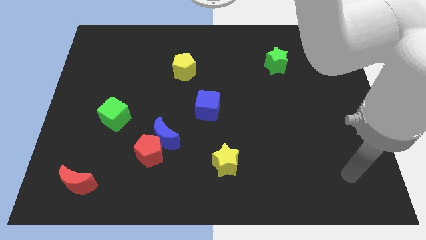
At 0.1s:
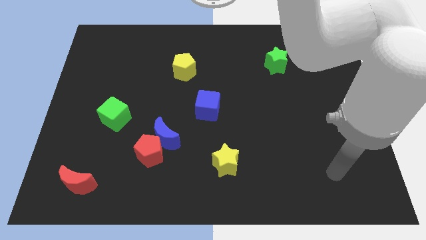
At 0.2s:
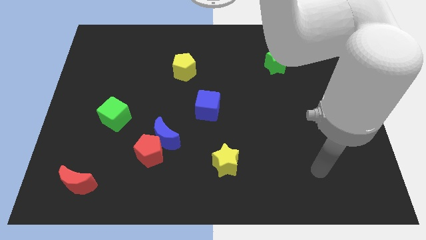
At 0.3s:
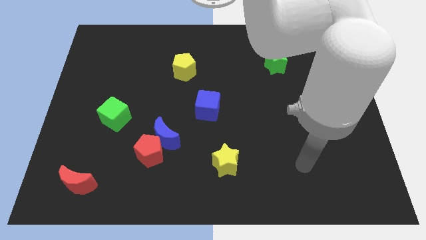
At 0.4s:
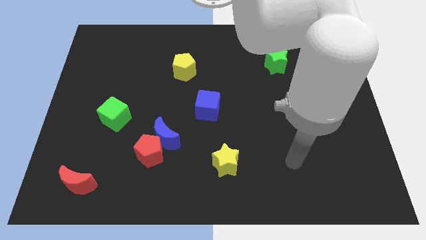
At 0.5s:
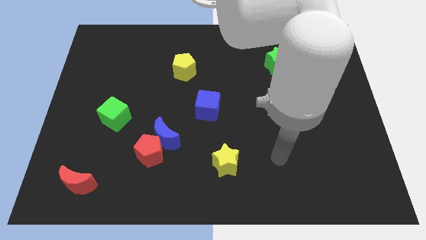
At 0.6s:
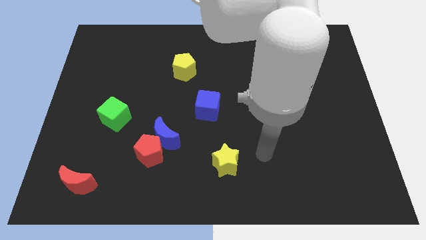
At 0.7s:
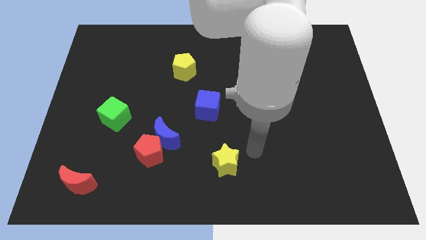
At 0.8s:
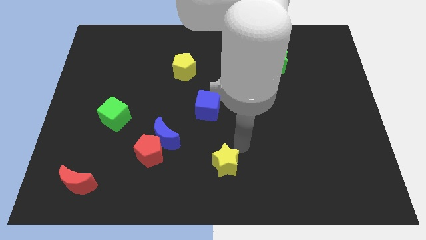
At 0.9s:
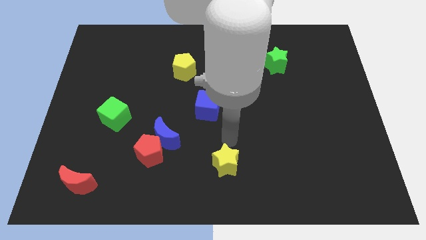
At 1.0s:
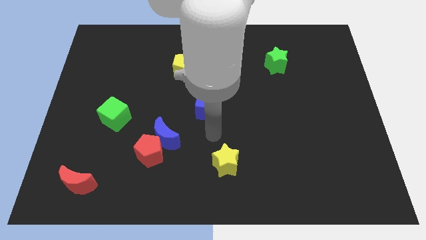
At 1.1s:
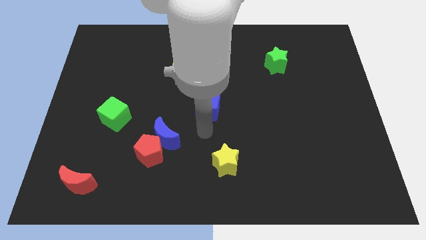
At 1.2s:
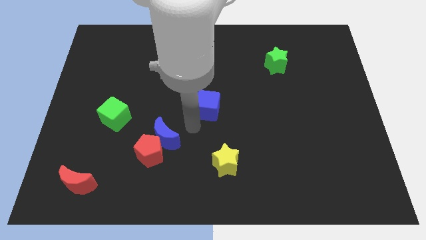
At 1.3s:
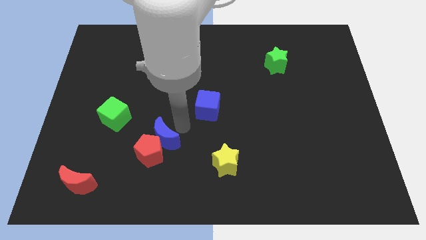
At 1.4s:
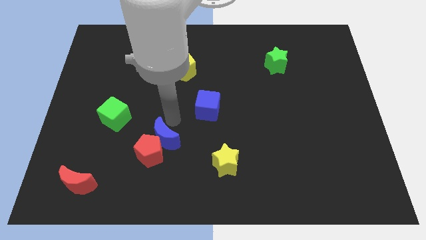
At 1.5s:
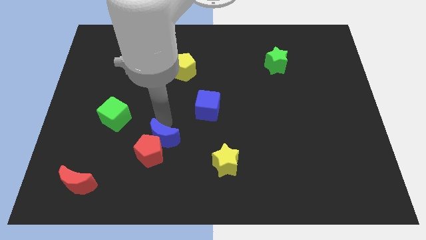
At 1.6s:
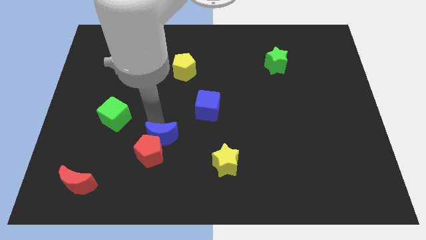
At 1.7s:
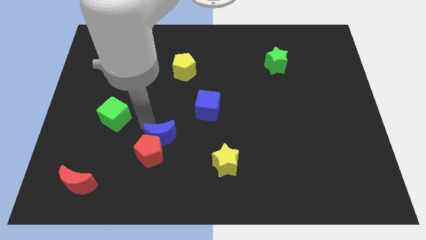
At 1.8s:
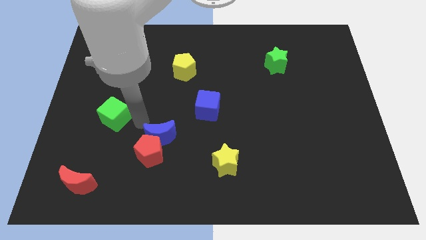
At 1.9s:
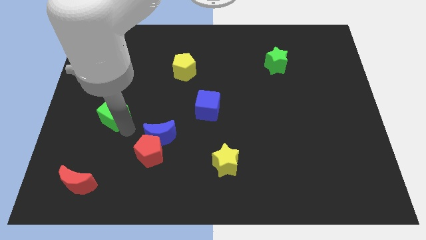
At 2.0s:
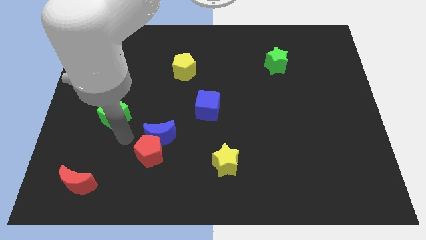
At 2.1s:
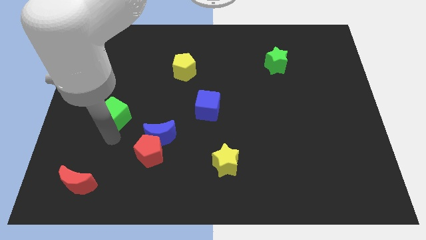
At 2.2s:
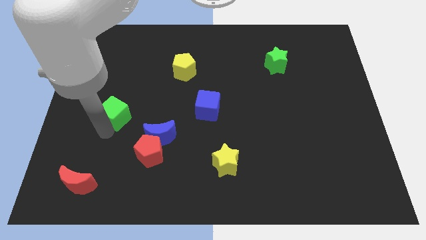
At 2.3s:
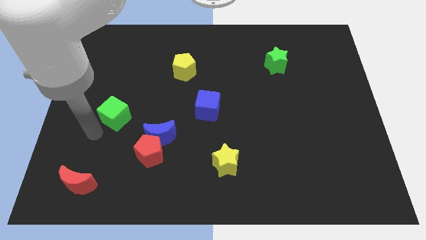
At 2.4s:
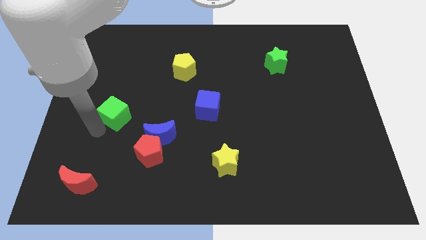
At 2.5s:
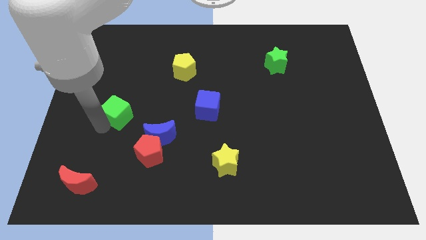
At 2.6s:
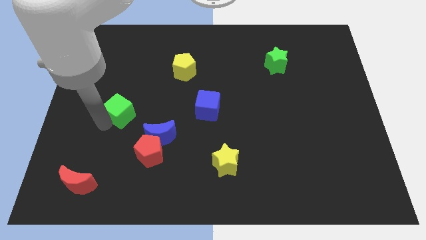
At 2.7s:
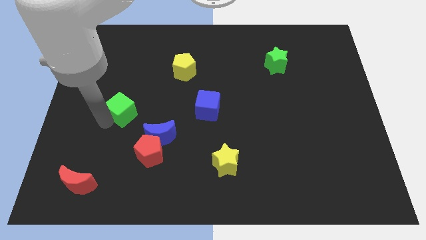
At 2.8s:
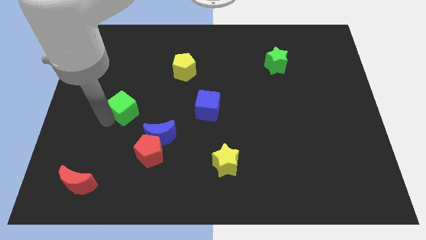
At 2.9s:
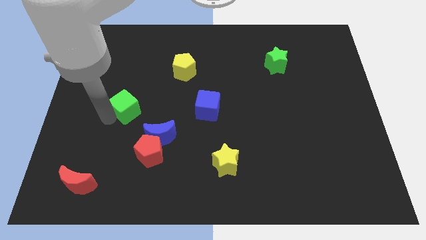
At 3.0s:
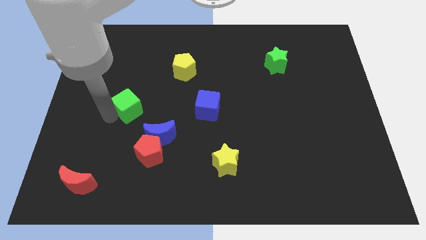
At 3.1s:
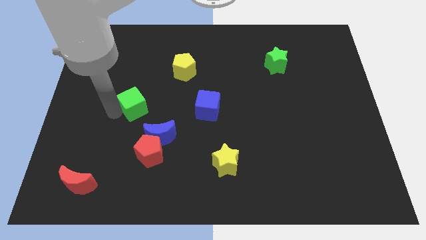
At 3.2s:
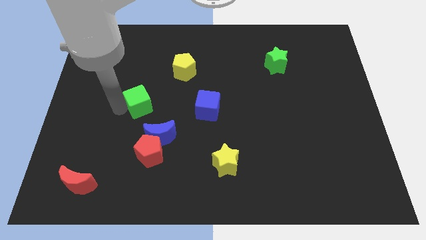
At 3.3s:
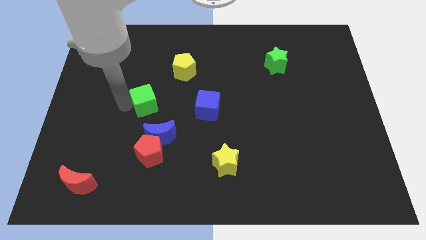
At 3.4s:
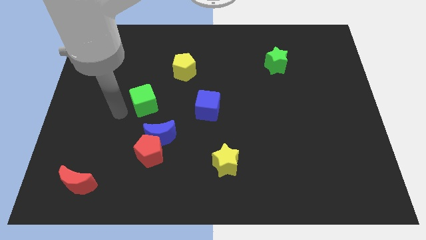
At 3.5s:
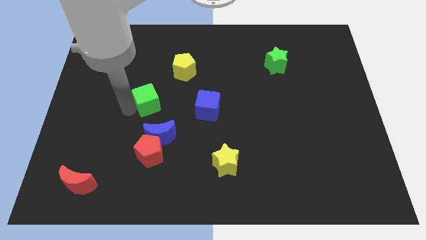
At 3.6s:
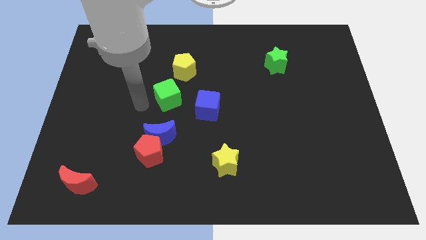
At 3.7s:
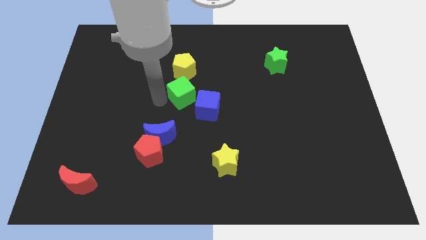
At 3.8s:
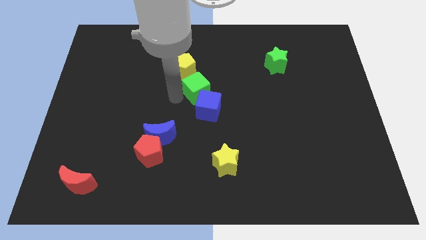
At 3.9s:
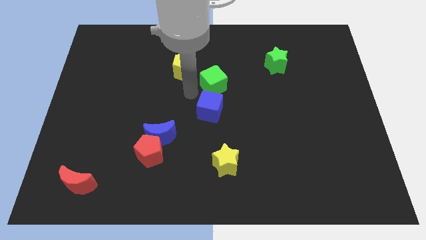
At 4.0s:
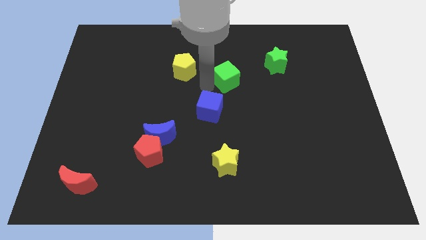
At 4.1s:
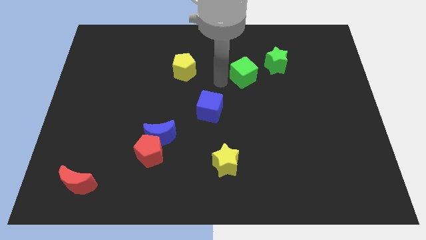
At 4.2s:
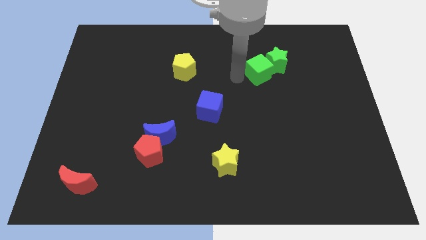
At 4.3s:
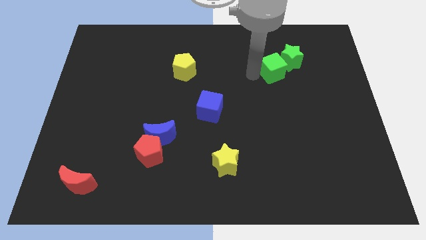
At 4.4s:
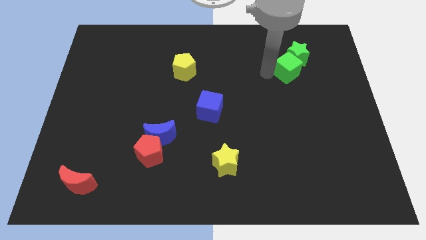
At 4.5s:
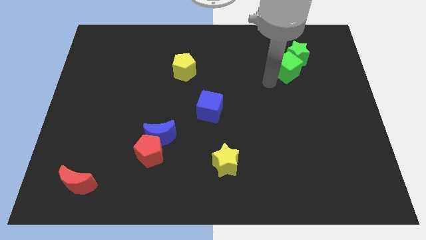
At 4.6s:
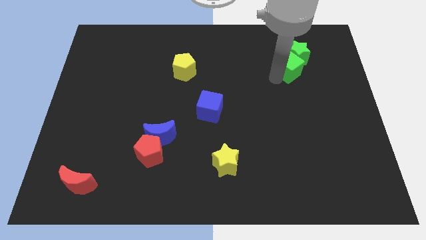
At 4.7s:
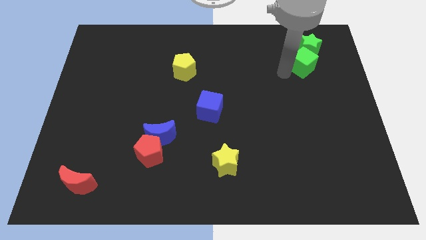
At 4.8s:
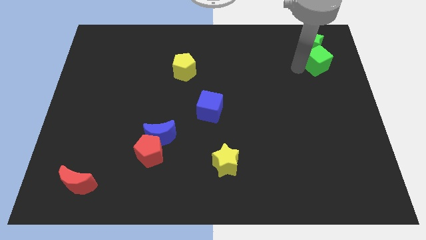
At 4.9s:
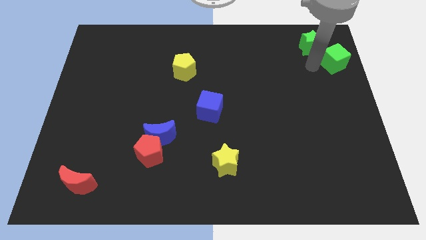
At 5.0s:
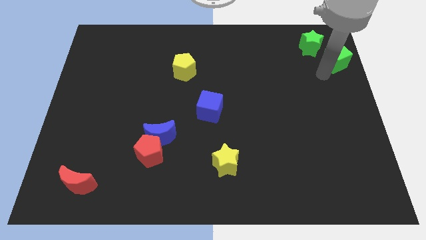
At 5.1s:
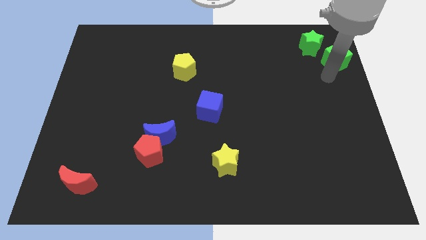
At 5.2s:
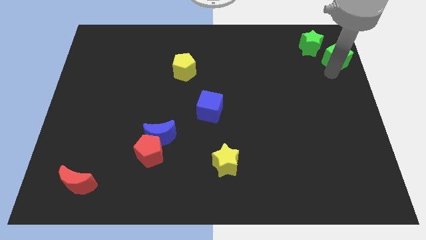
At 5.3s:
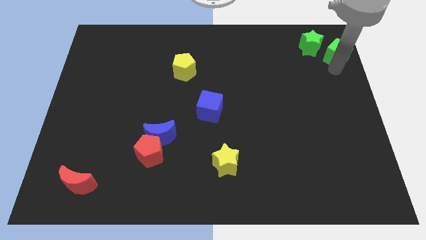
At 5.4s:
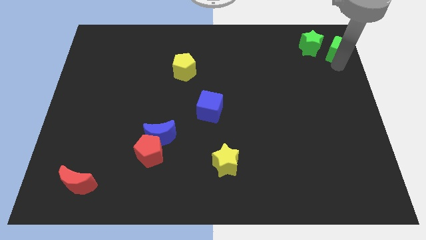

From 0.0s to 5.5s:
push the green cube to the top right corner

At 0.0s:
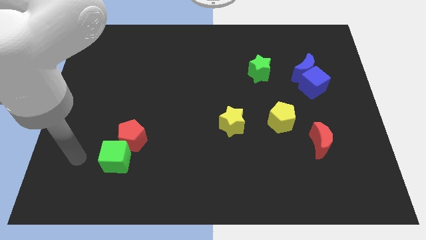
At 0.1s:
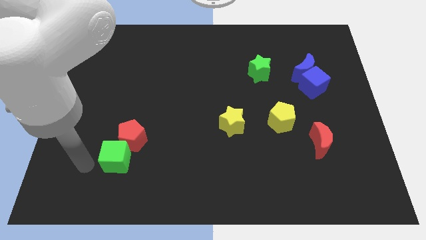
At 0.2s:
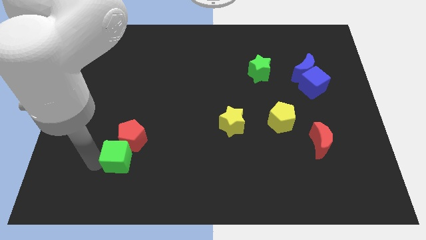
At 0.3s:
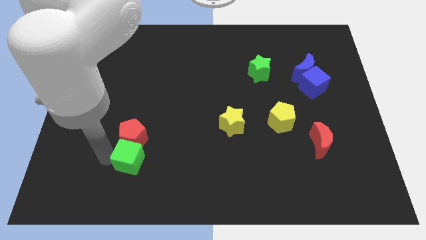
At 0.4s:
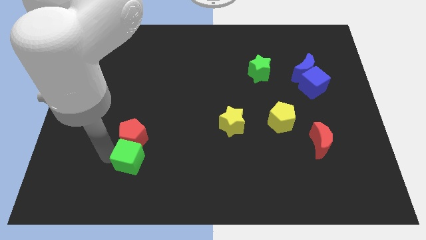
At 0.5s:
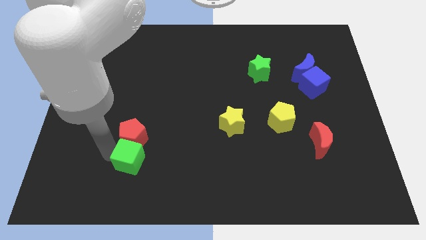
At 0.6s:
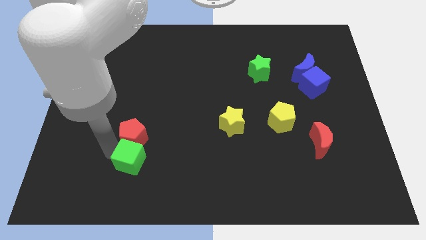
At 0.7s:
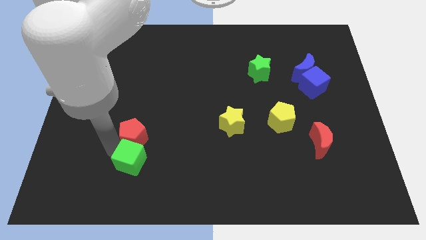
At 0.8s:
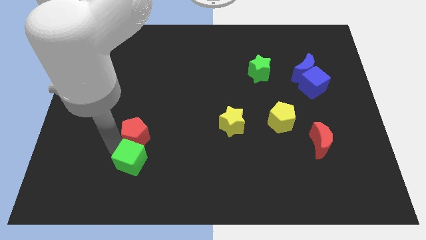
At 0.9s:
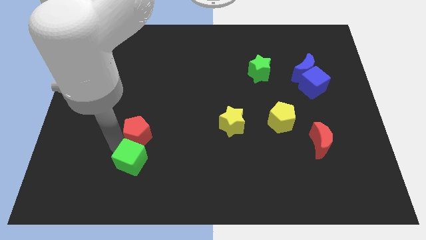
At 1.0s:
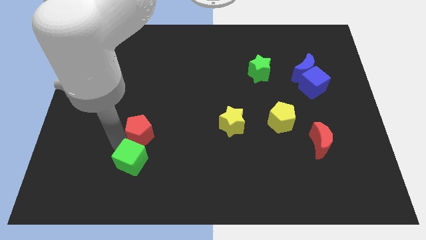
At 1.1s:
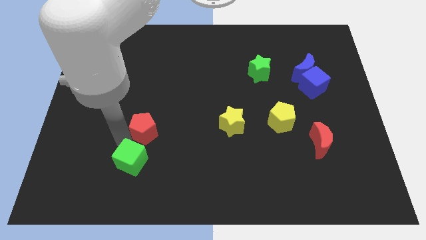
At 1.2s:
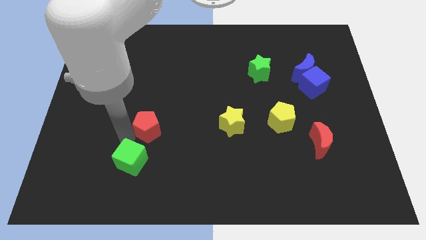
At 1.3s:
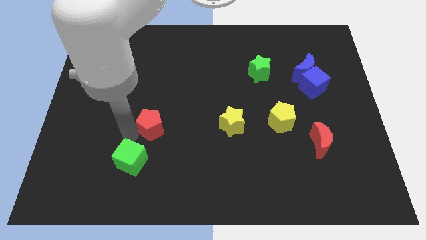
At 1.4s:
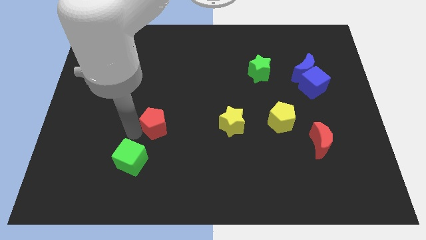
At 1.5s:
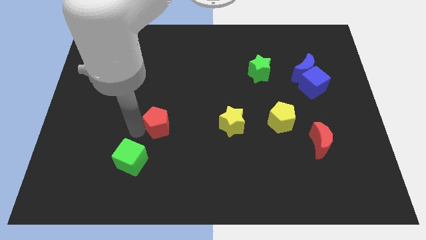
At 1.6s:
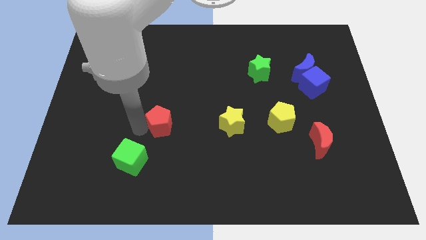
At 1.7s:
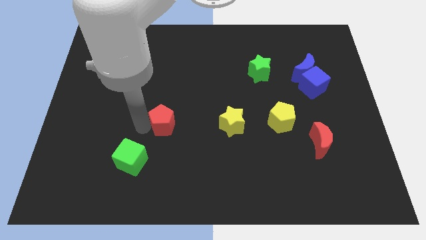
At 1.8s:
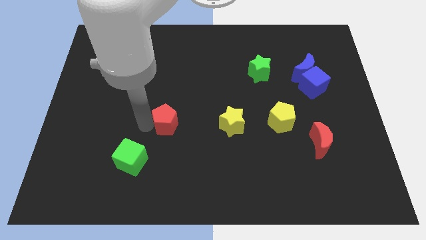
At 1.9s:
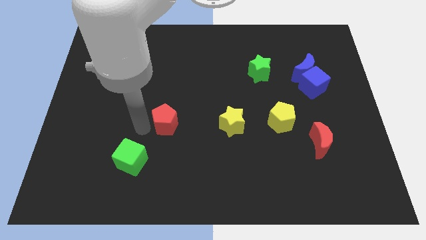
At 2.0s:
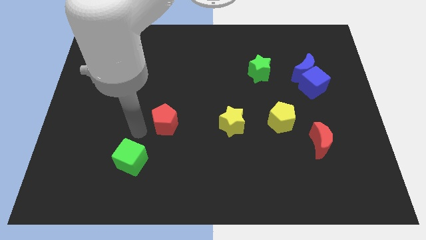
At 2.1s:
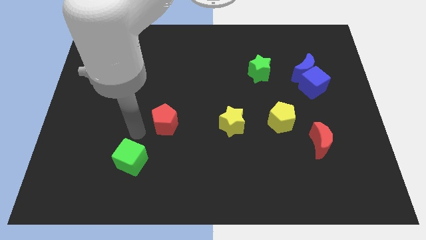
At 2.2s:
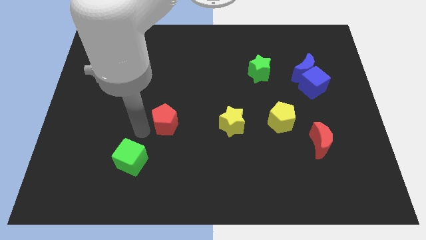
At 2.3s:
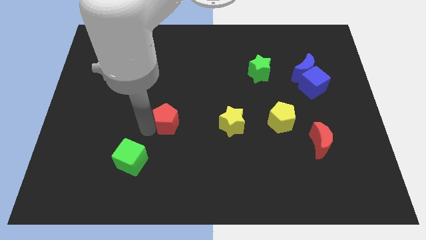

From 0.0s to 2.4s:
slide the red pentagon to the middle of the board
